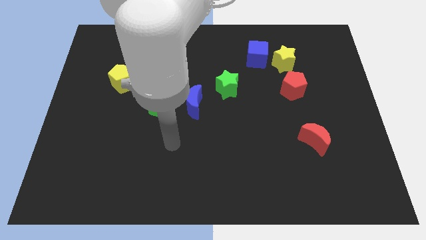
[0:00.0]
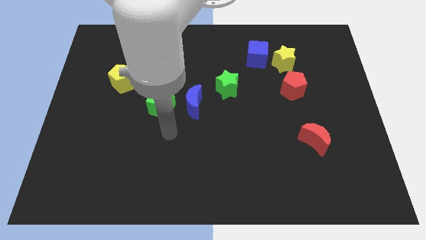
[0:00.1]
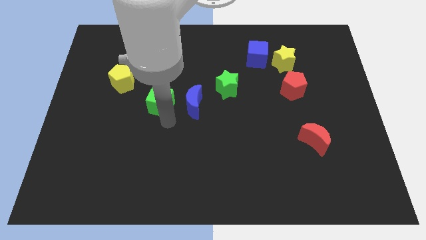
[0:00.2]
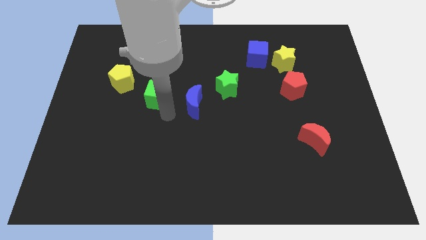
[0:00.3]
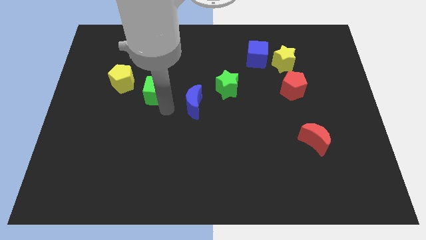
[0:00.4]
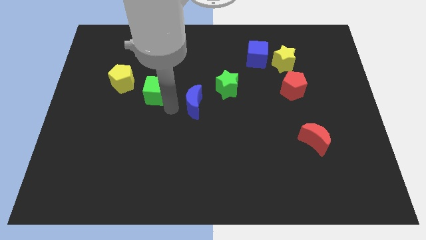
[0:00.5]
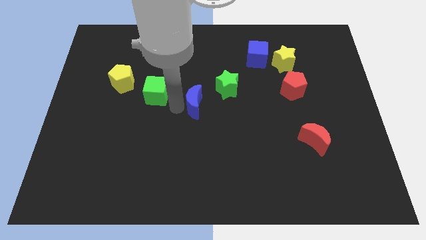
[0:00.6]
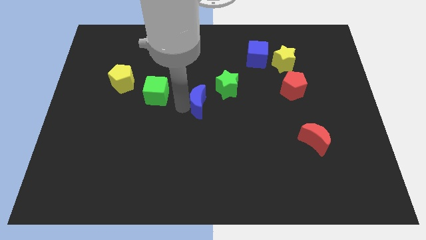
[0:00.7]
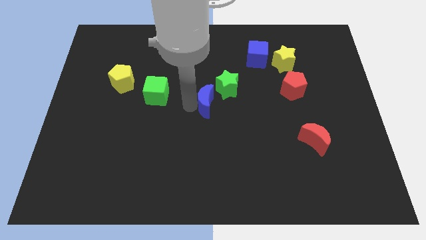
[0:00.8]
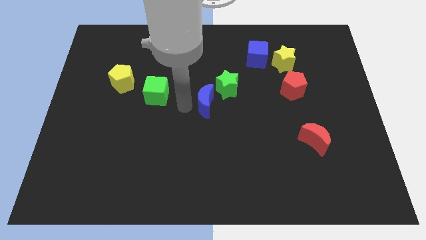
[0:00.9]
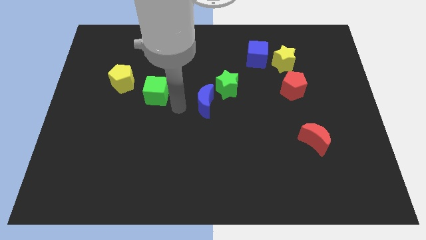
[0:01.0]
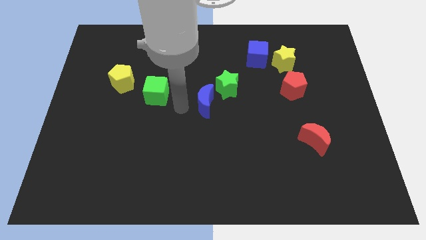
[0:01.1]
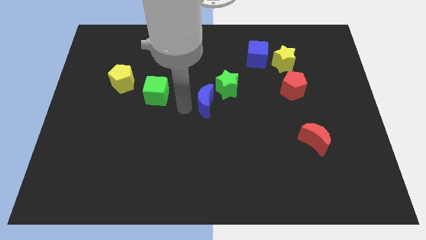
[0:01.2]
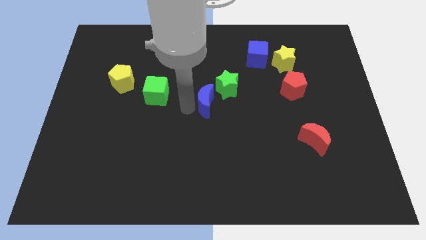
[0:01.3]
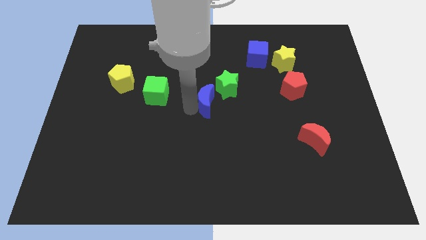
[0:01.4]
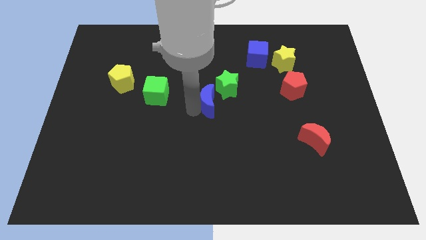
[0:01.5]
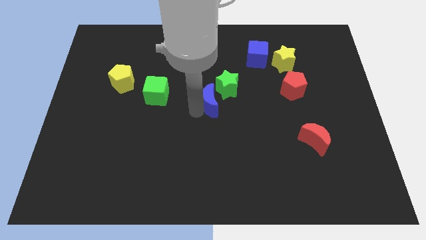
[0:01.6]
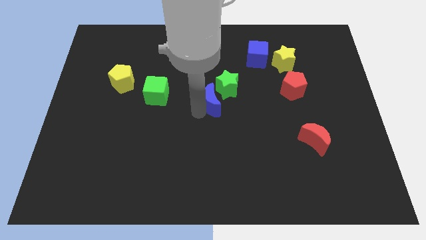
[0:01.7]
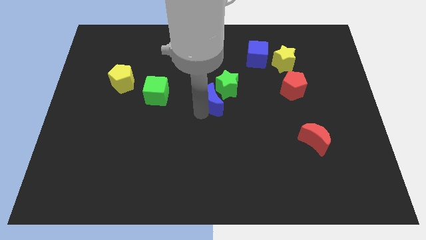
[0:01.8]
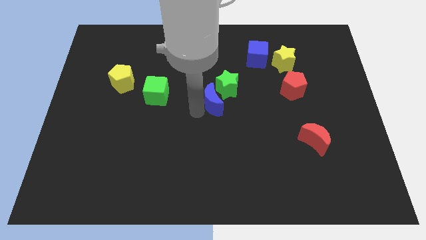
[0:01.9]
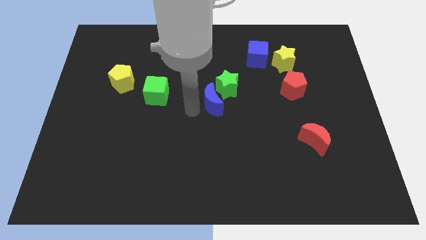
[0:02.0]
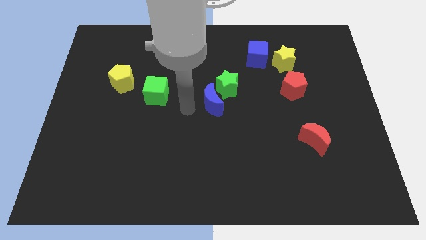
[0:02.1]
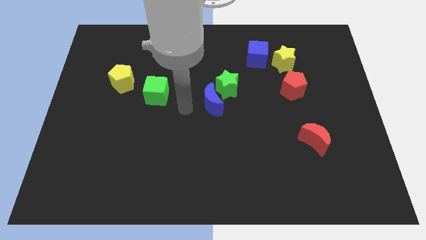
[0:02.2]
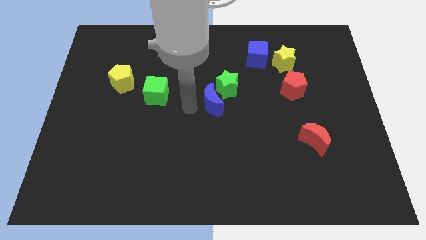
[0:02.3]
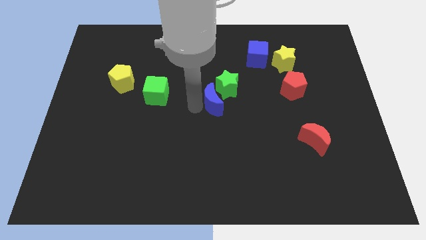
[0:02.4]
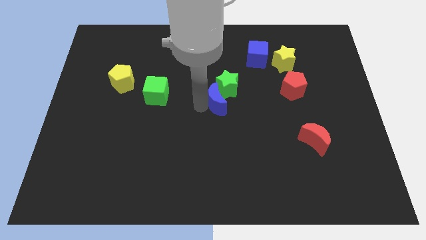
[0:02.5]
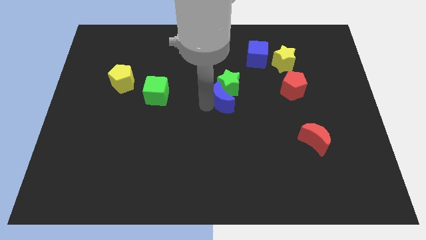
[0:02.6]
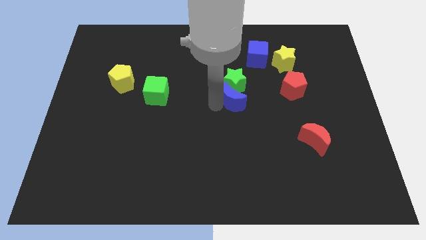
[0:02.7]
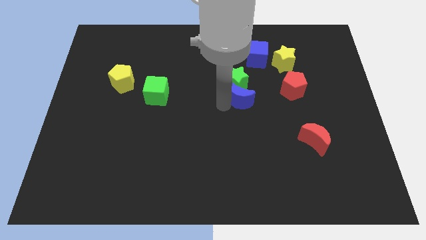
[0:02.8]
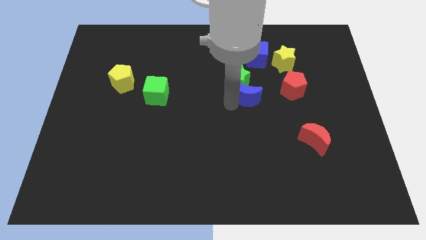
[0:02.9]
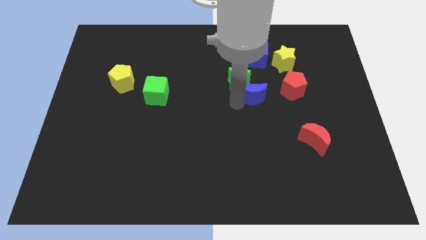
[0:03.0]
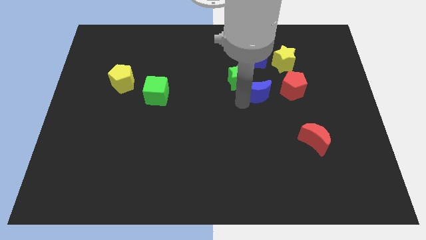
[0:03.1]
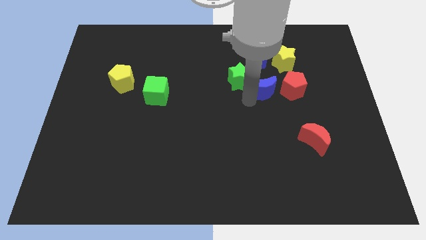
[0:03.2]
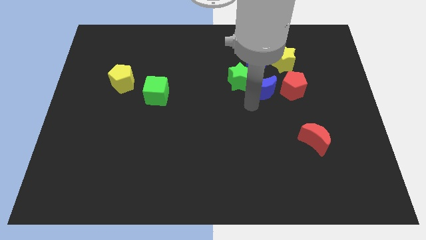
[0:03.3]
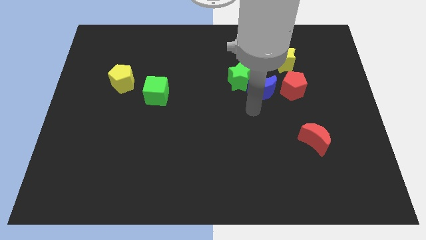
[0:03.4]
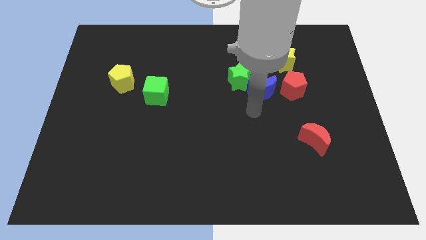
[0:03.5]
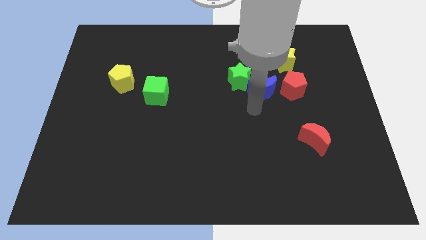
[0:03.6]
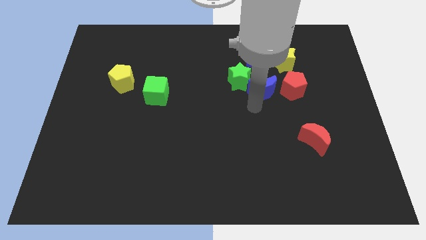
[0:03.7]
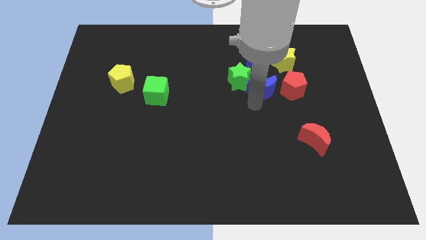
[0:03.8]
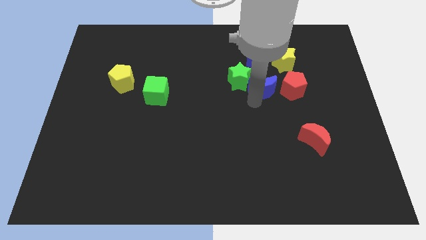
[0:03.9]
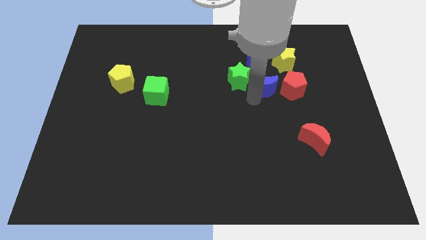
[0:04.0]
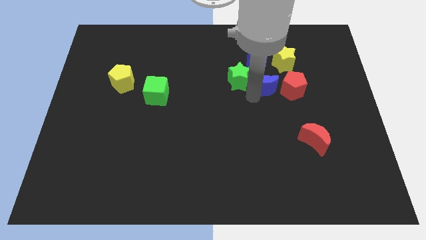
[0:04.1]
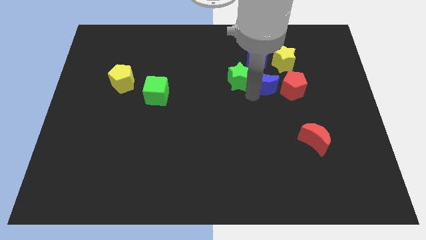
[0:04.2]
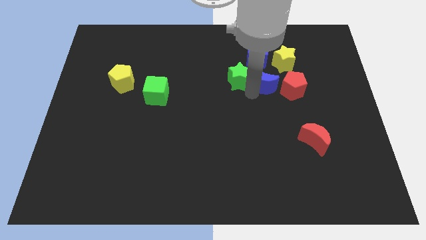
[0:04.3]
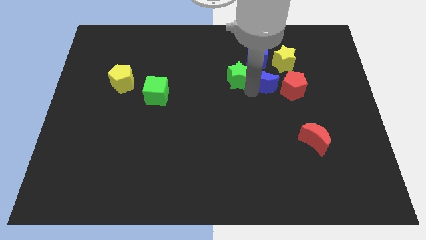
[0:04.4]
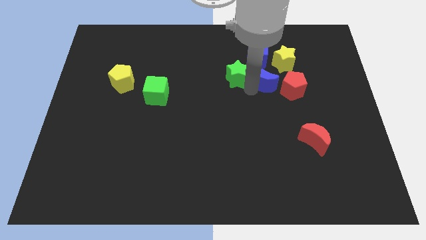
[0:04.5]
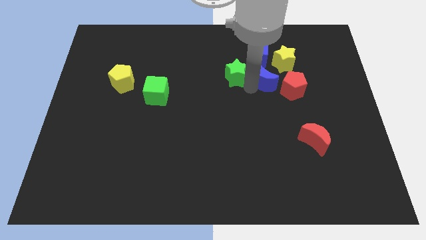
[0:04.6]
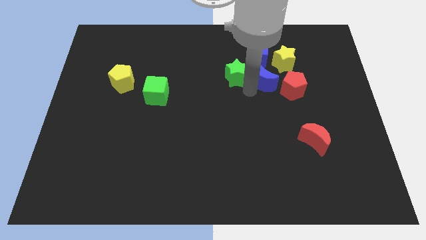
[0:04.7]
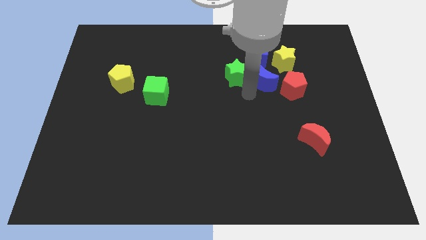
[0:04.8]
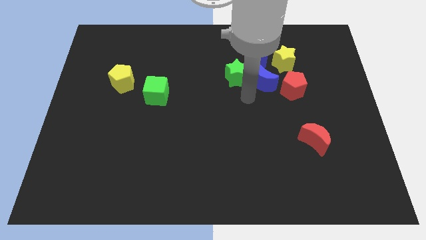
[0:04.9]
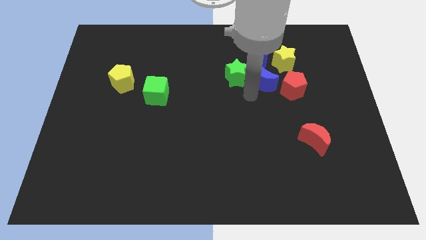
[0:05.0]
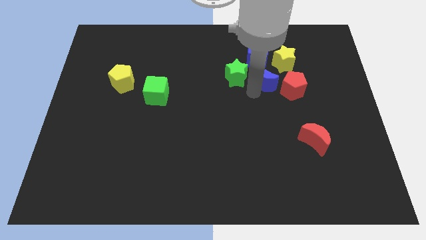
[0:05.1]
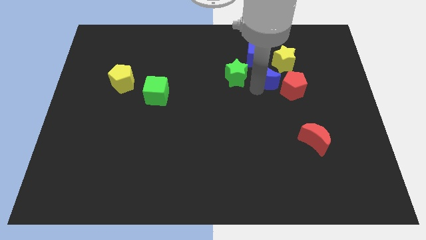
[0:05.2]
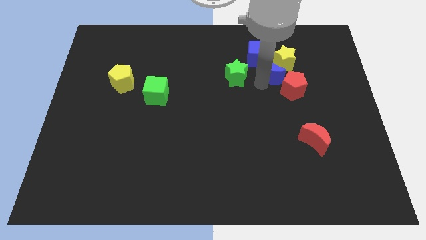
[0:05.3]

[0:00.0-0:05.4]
move the blue moon next to the yellow star

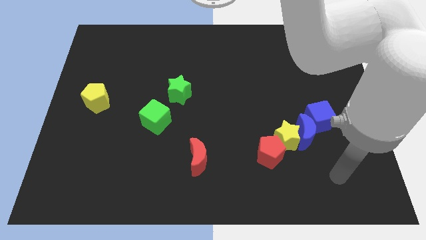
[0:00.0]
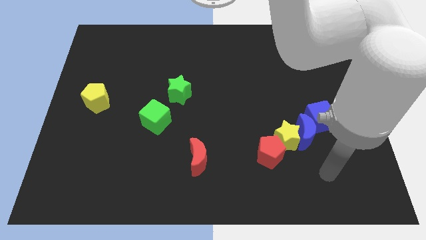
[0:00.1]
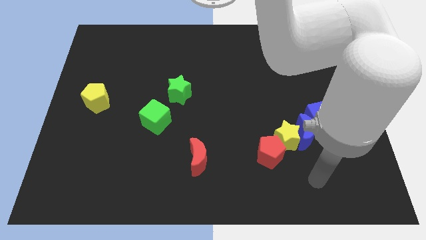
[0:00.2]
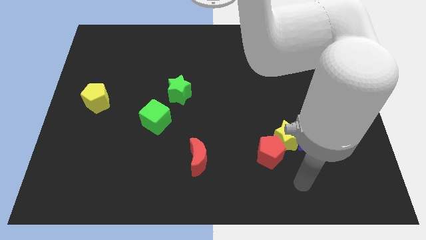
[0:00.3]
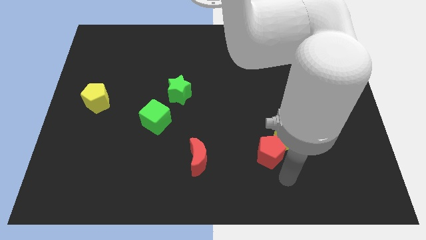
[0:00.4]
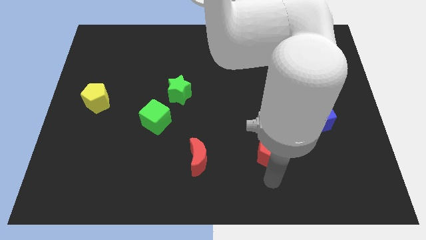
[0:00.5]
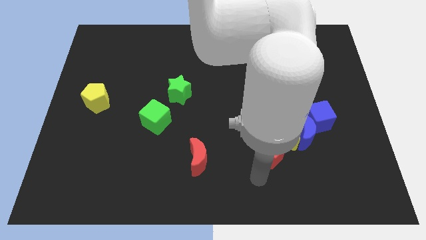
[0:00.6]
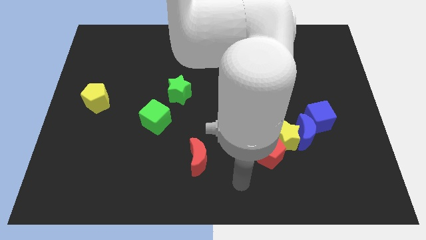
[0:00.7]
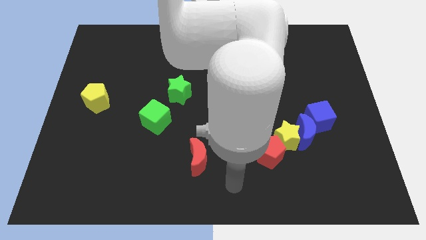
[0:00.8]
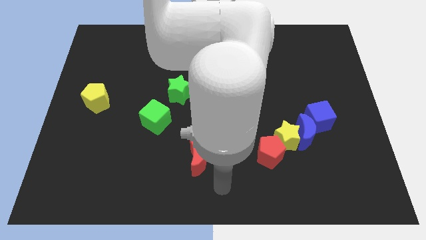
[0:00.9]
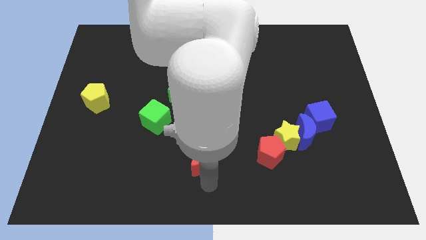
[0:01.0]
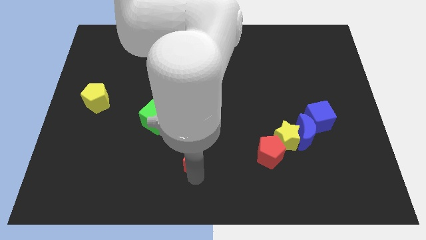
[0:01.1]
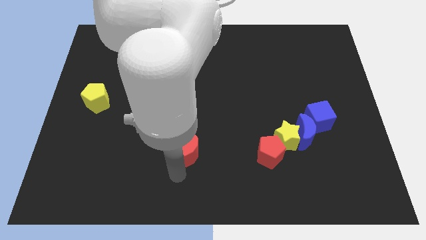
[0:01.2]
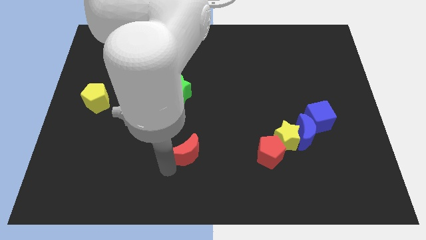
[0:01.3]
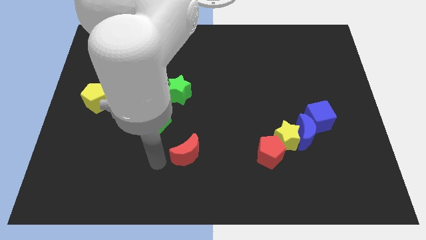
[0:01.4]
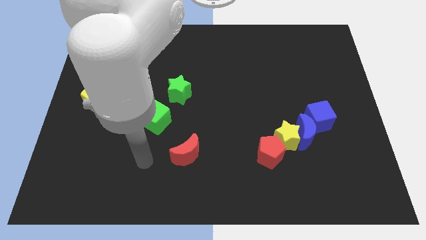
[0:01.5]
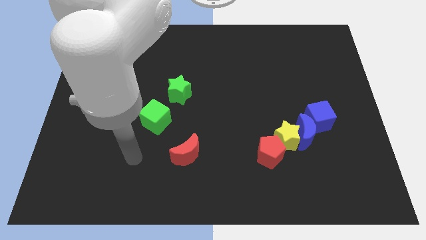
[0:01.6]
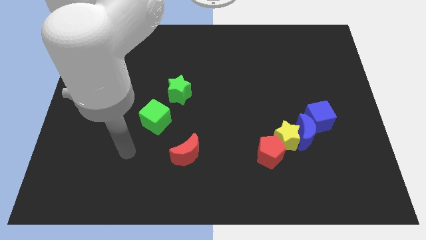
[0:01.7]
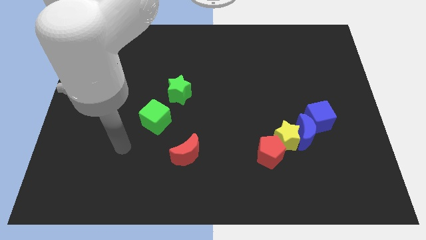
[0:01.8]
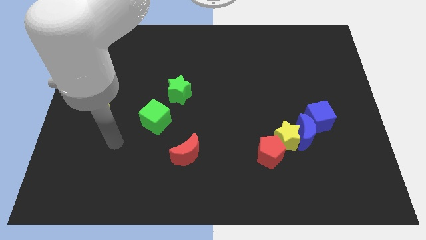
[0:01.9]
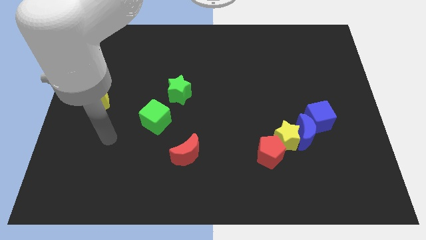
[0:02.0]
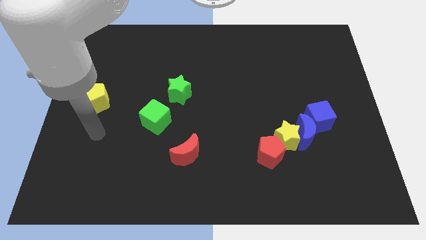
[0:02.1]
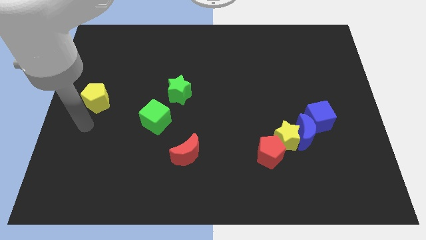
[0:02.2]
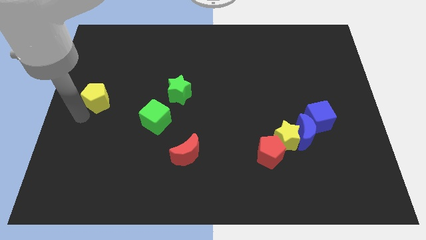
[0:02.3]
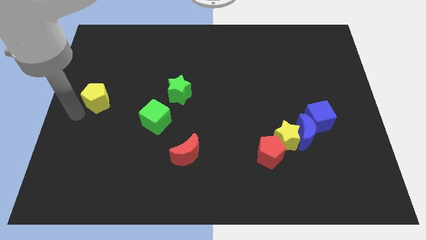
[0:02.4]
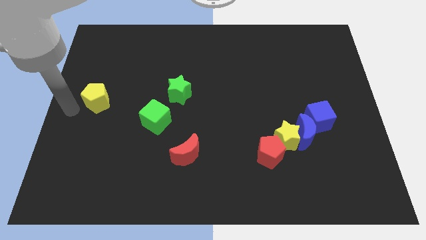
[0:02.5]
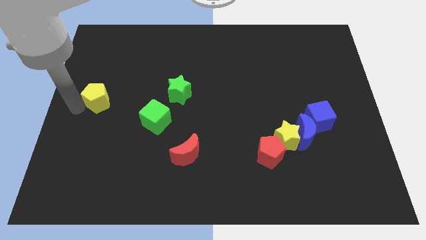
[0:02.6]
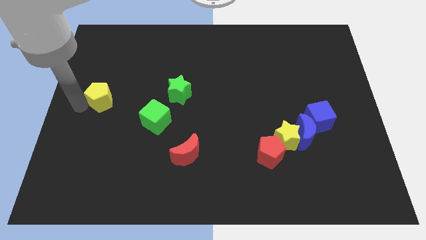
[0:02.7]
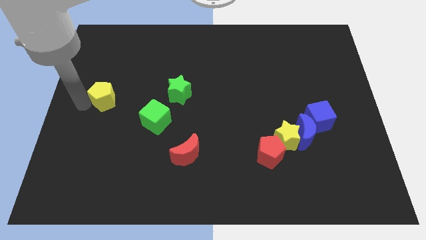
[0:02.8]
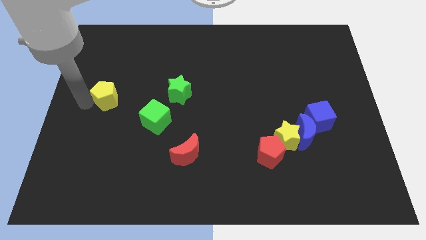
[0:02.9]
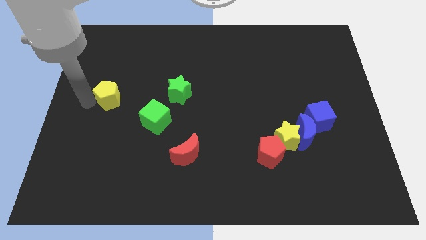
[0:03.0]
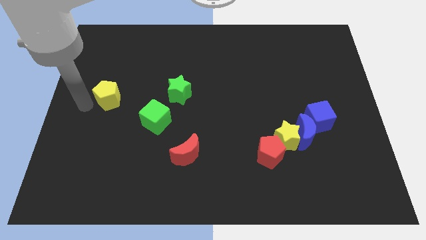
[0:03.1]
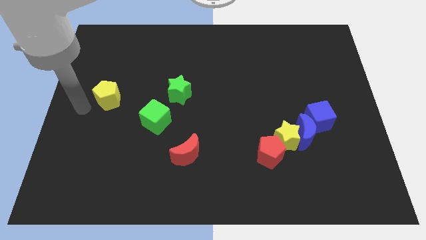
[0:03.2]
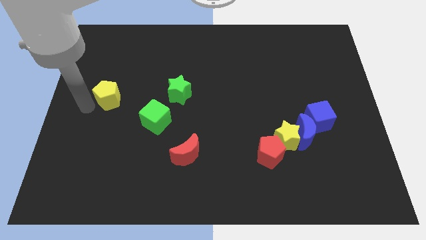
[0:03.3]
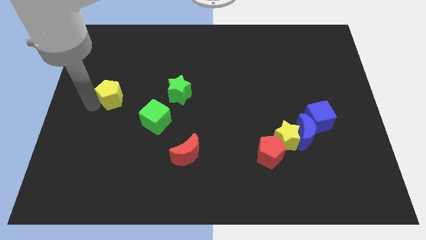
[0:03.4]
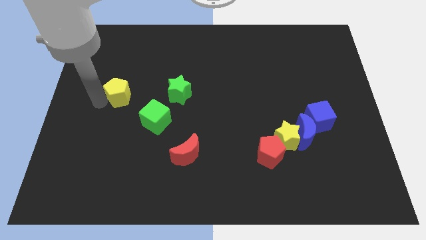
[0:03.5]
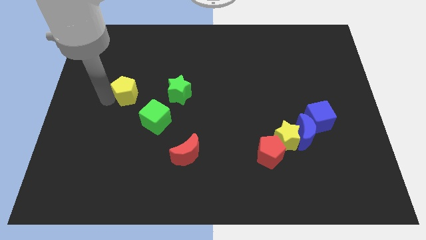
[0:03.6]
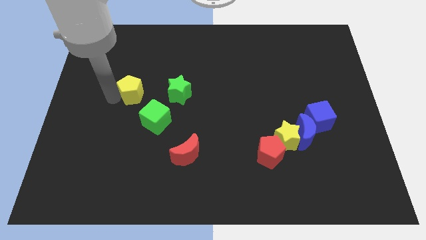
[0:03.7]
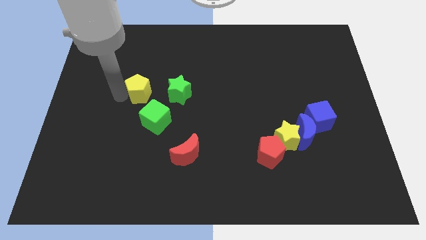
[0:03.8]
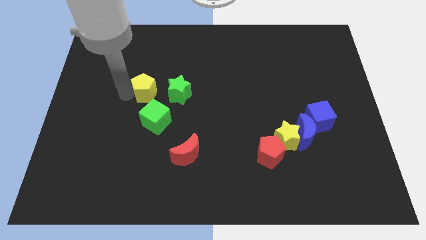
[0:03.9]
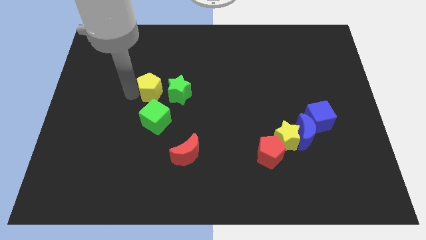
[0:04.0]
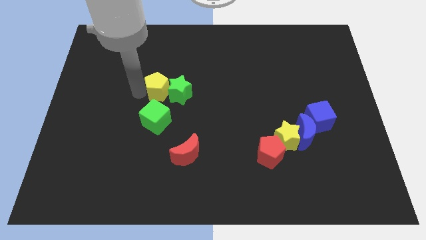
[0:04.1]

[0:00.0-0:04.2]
move the yellow pentagon close to the green star
